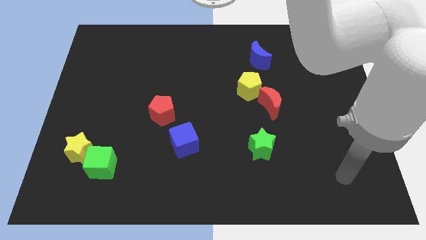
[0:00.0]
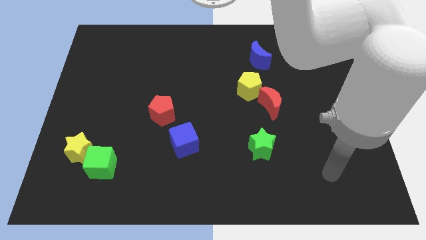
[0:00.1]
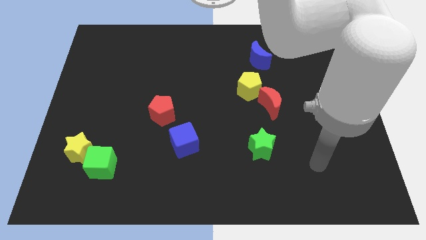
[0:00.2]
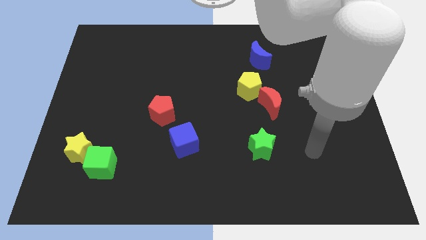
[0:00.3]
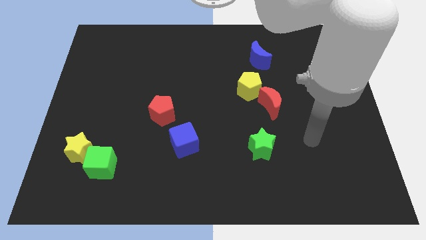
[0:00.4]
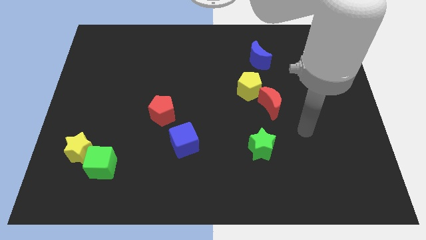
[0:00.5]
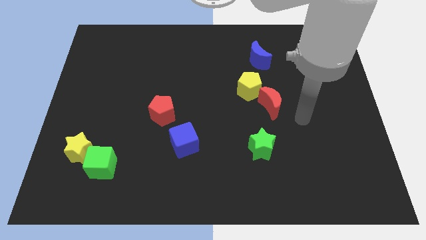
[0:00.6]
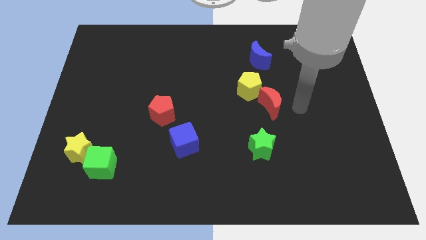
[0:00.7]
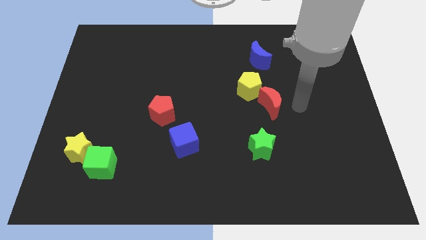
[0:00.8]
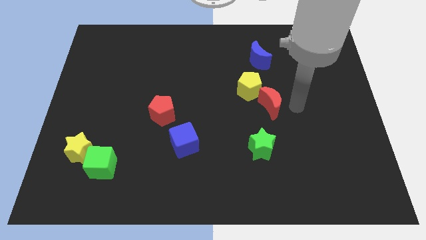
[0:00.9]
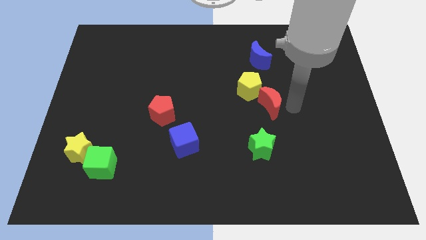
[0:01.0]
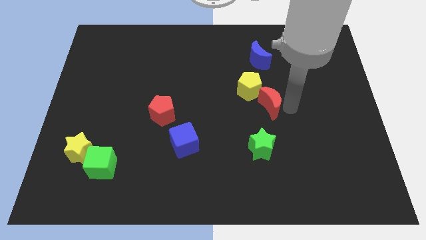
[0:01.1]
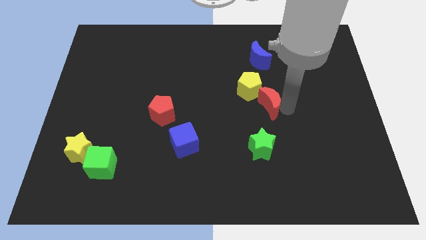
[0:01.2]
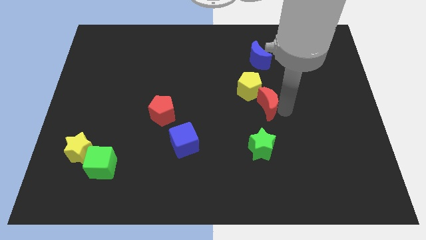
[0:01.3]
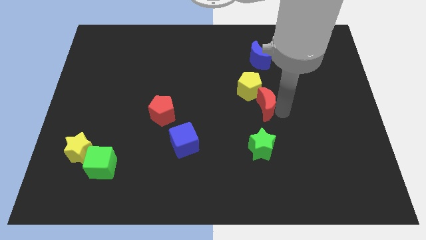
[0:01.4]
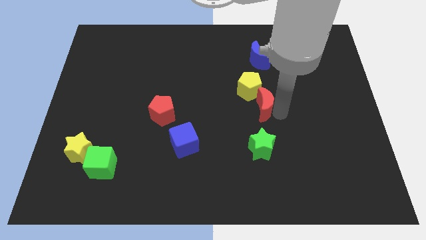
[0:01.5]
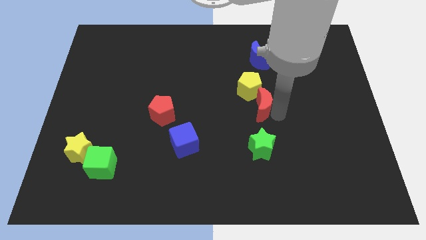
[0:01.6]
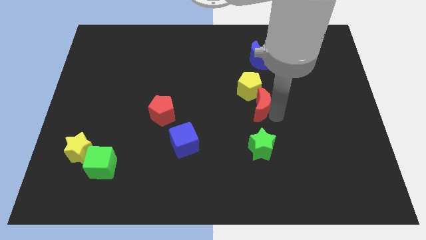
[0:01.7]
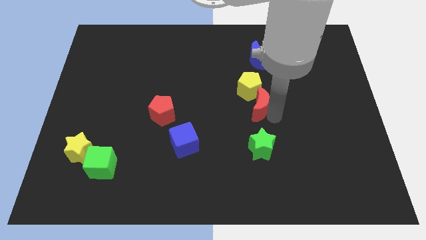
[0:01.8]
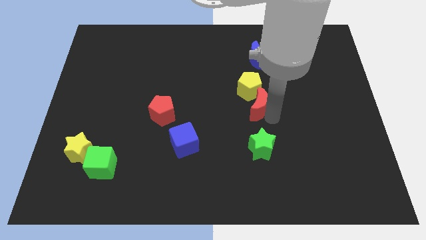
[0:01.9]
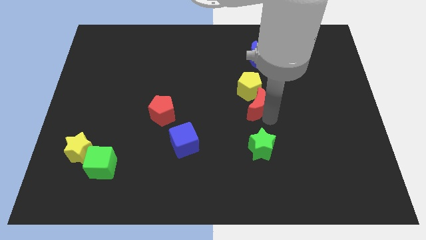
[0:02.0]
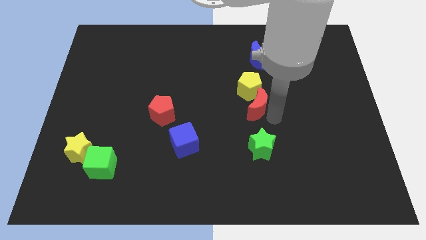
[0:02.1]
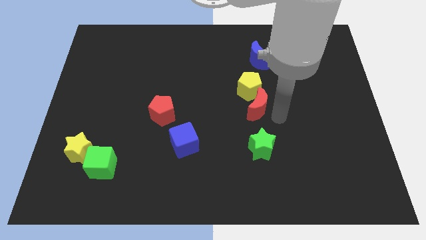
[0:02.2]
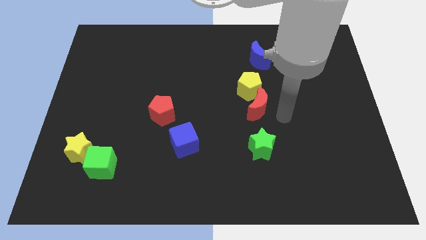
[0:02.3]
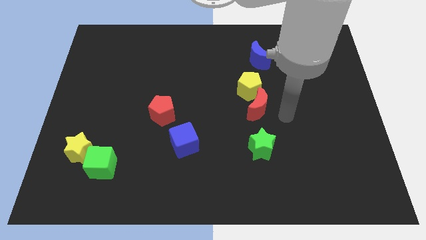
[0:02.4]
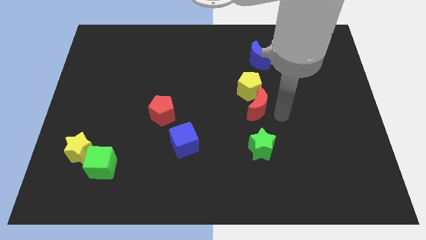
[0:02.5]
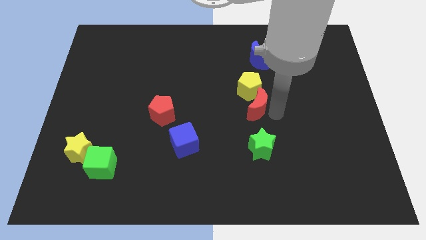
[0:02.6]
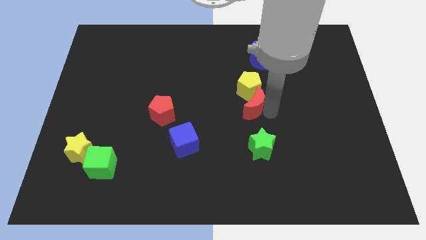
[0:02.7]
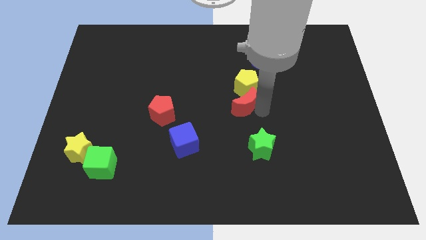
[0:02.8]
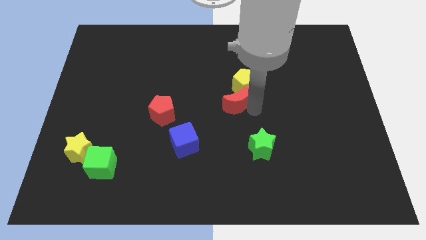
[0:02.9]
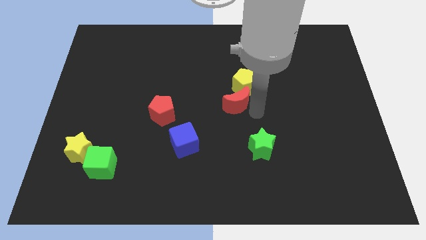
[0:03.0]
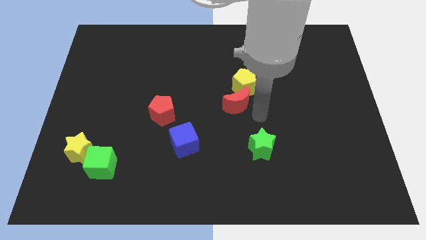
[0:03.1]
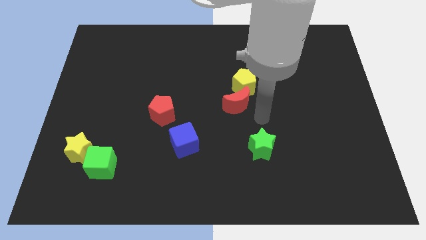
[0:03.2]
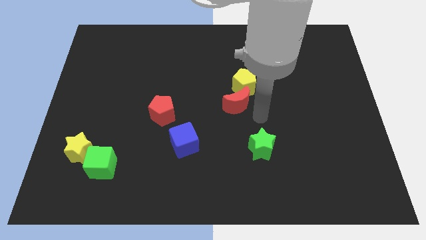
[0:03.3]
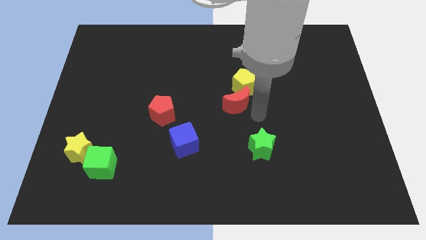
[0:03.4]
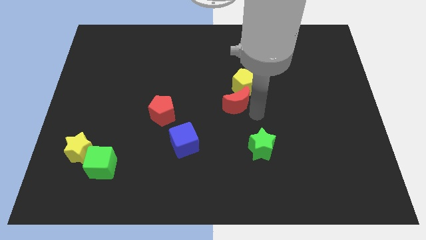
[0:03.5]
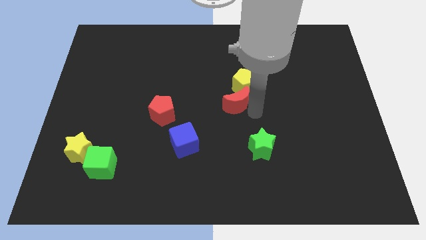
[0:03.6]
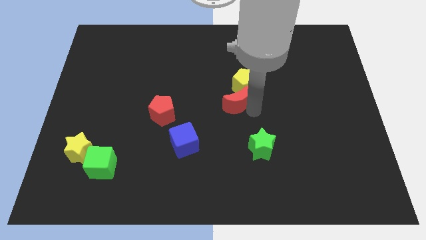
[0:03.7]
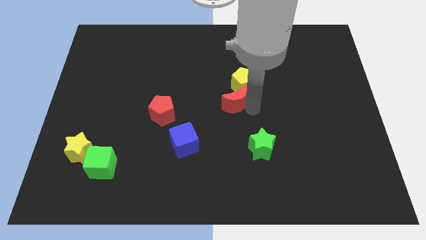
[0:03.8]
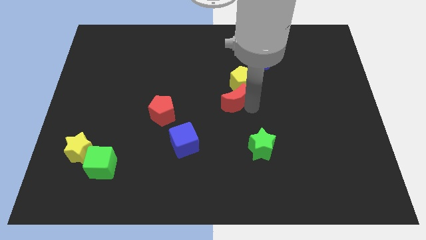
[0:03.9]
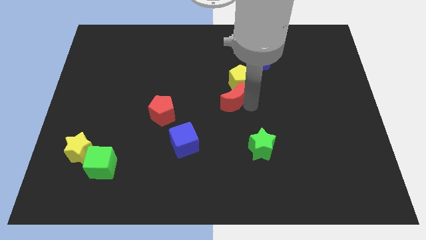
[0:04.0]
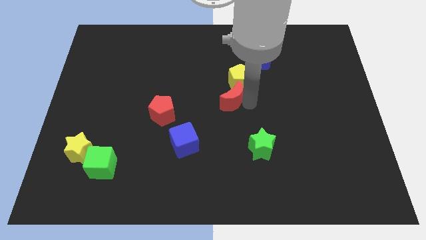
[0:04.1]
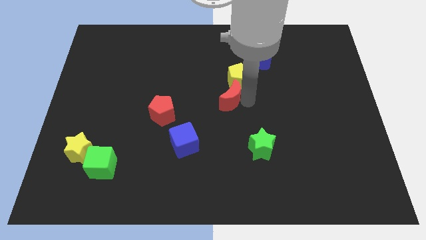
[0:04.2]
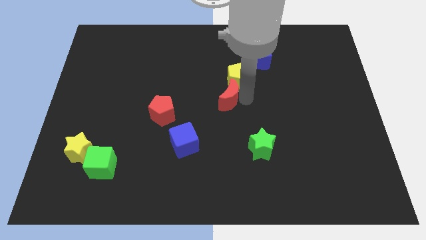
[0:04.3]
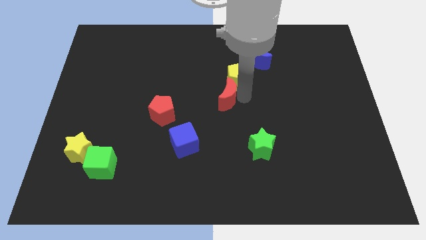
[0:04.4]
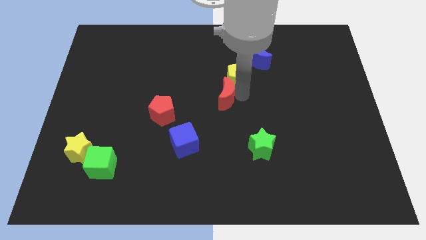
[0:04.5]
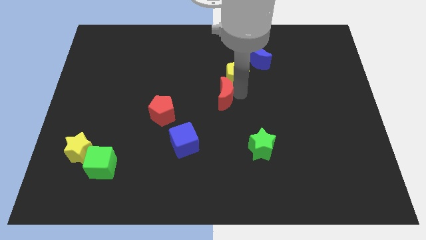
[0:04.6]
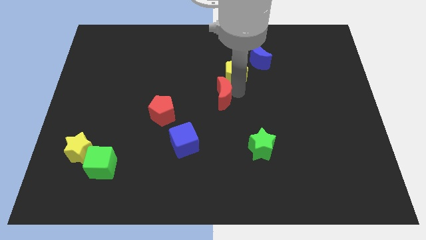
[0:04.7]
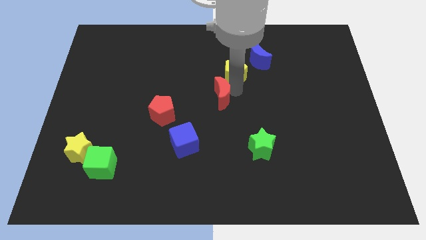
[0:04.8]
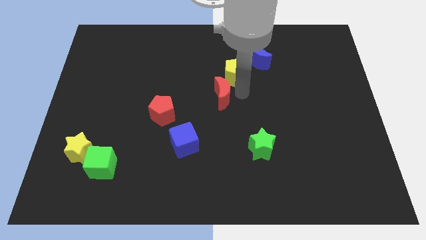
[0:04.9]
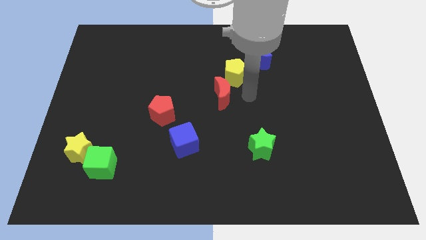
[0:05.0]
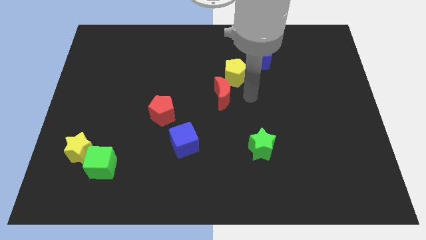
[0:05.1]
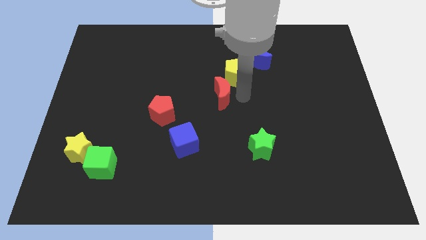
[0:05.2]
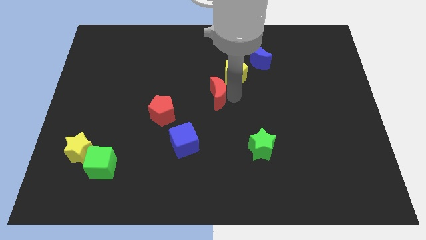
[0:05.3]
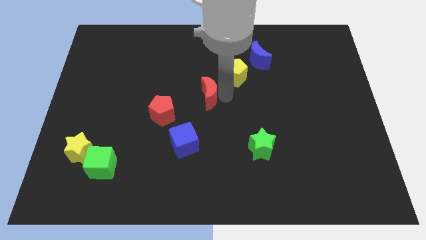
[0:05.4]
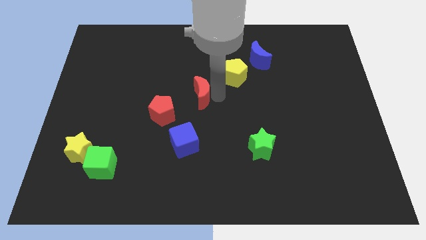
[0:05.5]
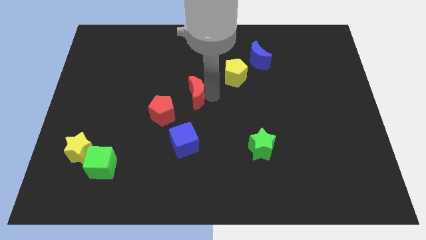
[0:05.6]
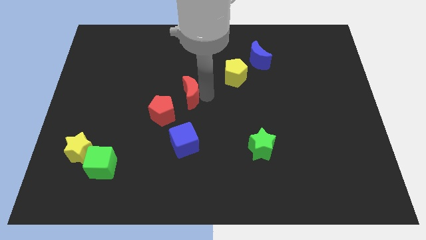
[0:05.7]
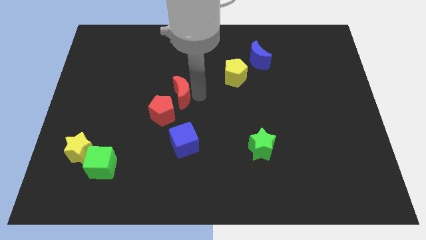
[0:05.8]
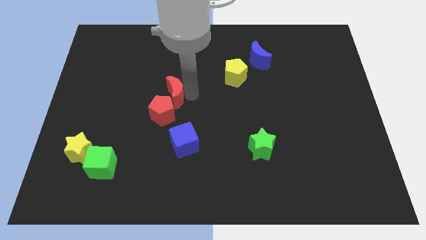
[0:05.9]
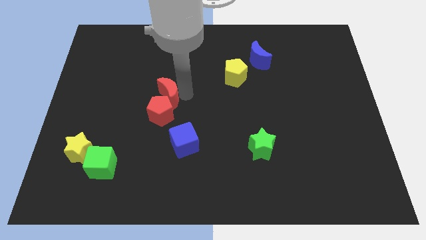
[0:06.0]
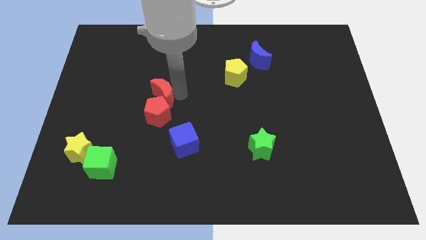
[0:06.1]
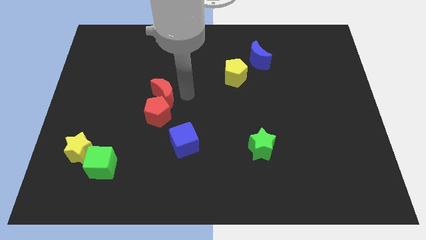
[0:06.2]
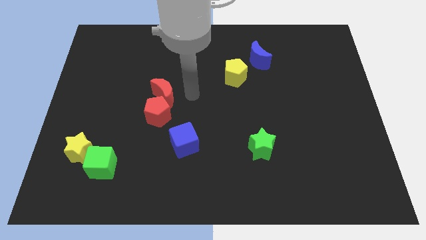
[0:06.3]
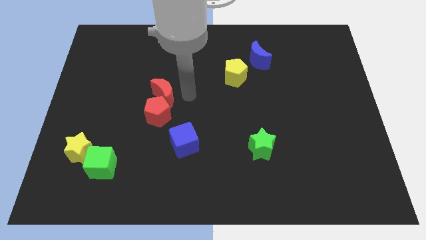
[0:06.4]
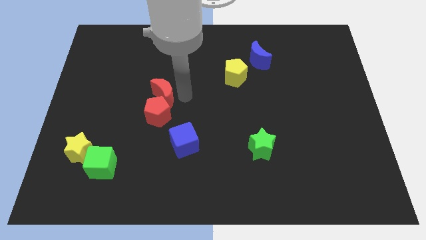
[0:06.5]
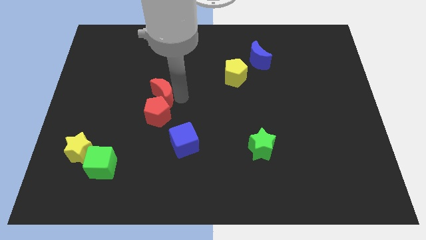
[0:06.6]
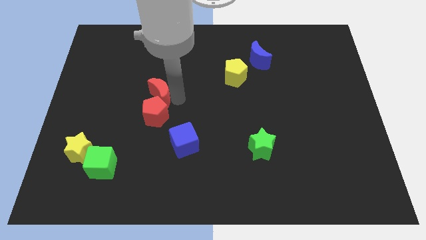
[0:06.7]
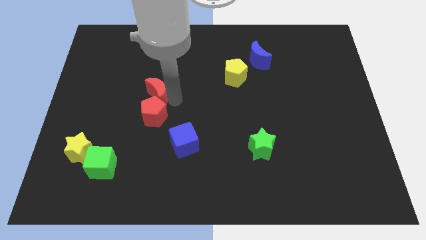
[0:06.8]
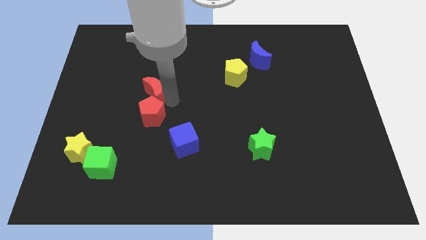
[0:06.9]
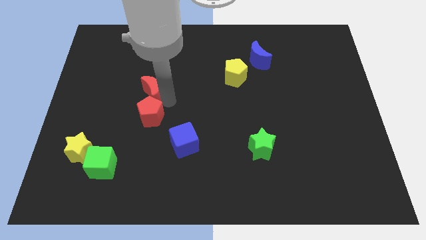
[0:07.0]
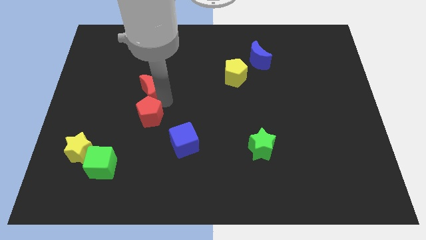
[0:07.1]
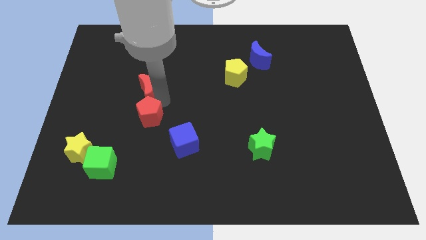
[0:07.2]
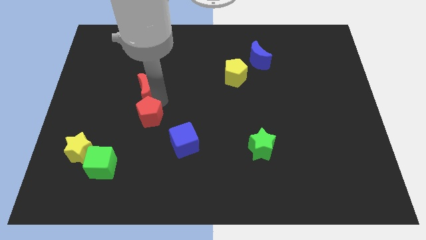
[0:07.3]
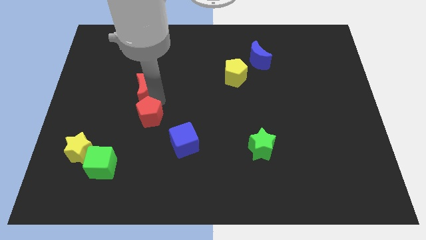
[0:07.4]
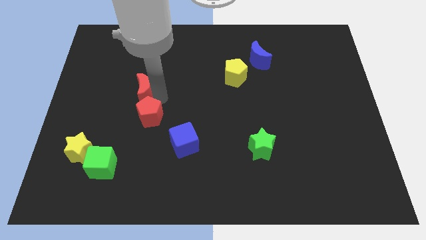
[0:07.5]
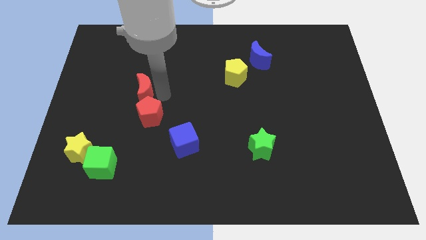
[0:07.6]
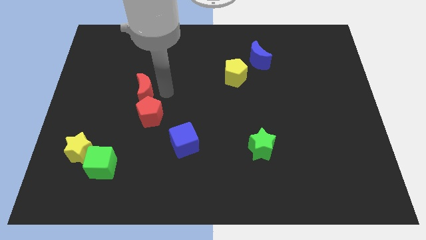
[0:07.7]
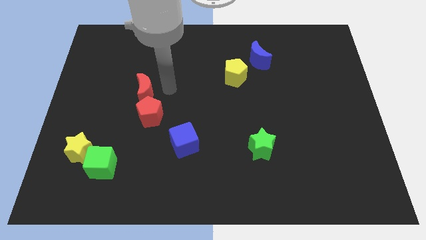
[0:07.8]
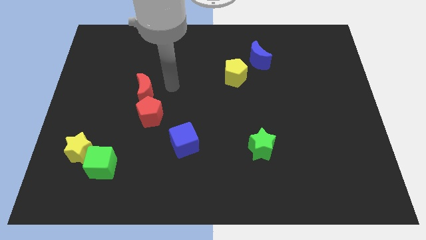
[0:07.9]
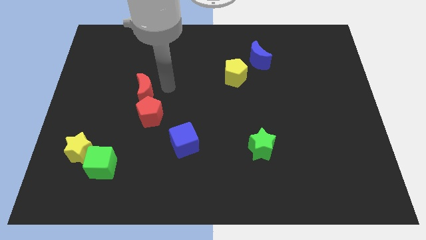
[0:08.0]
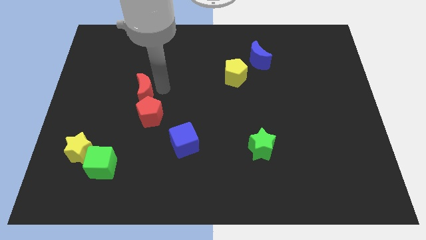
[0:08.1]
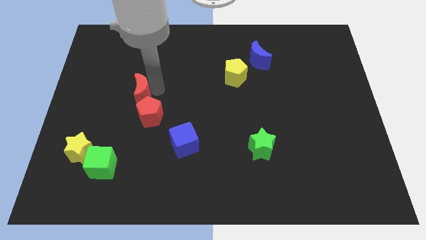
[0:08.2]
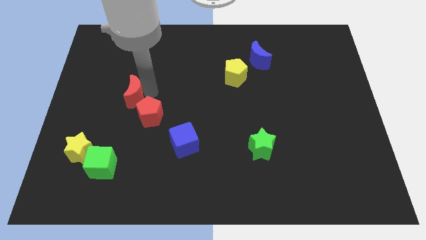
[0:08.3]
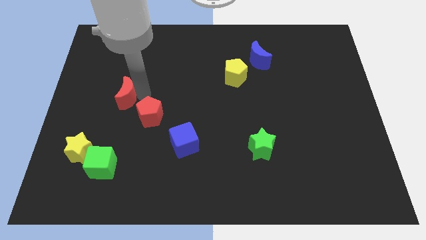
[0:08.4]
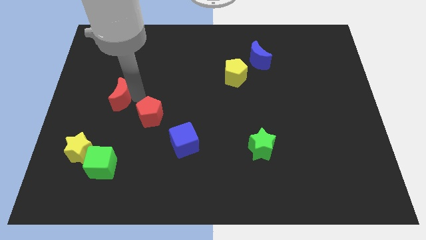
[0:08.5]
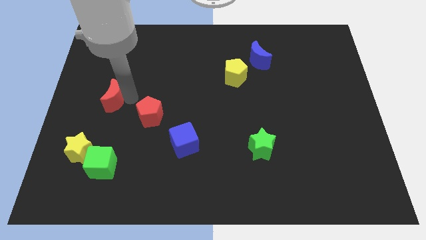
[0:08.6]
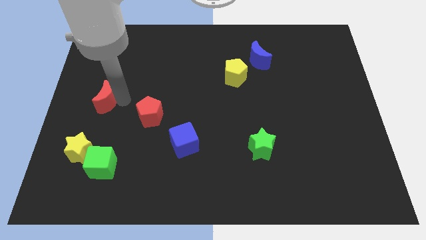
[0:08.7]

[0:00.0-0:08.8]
put the red moon to the left side
